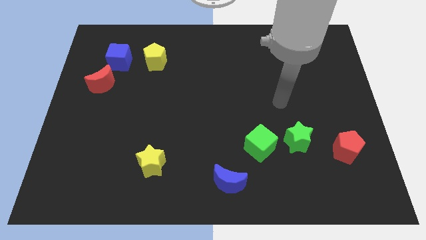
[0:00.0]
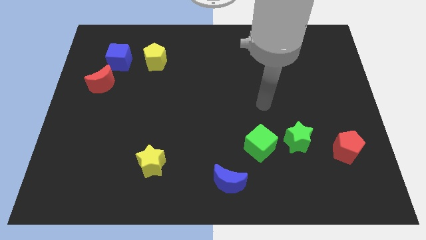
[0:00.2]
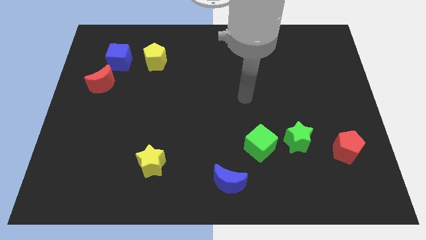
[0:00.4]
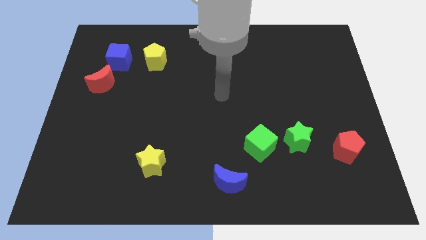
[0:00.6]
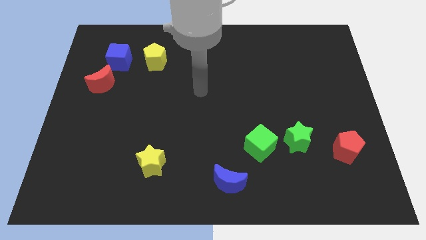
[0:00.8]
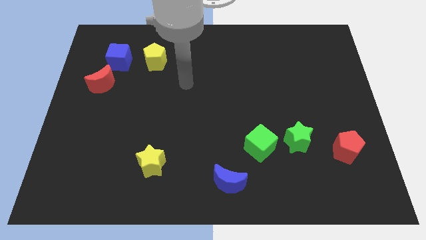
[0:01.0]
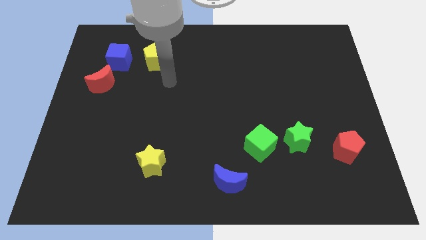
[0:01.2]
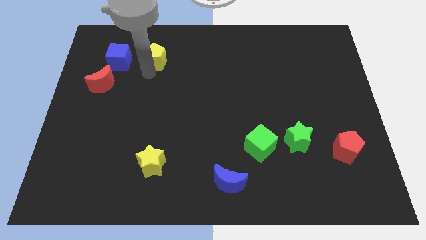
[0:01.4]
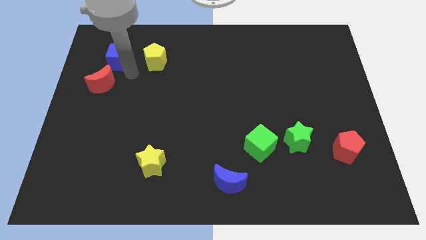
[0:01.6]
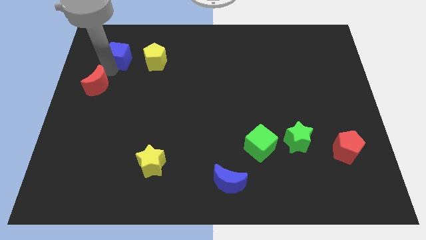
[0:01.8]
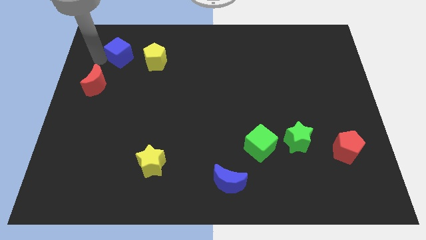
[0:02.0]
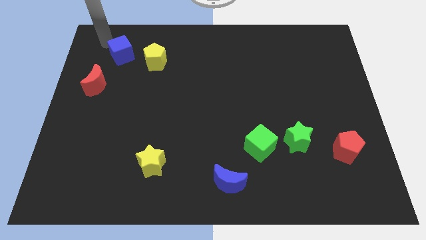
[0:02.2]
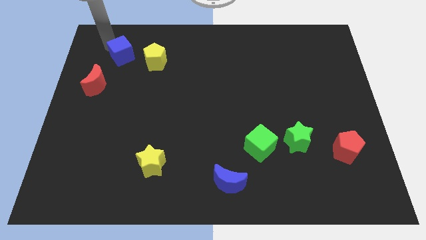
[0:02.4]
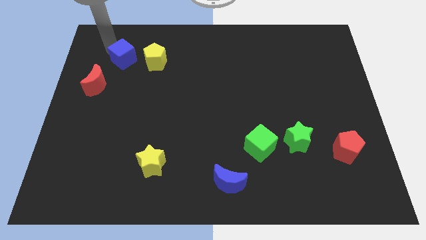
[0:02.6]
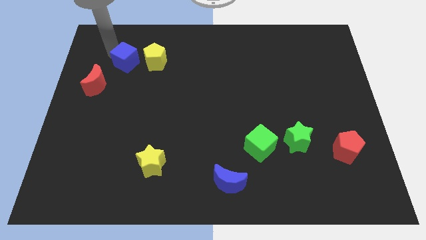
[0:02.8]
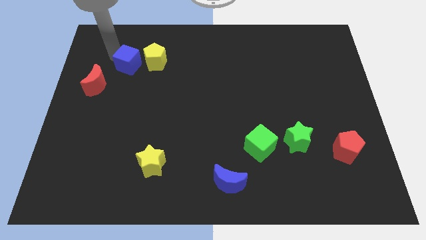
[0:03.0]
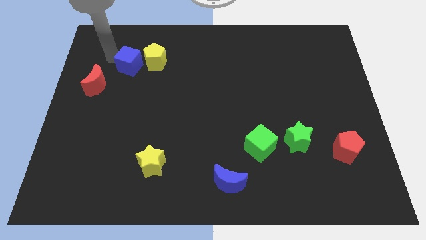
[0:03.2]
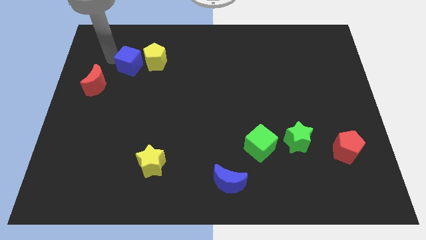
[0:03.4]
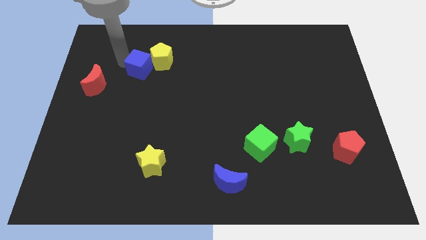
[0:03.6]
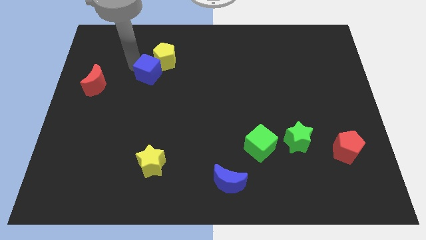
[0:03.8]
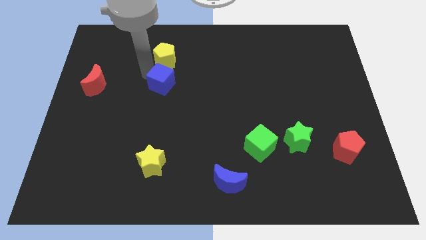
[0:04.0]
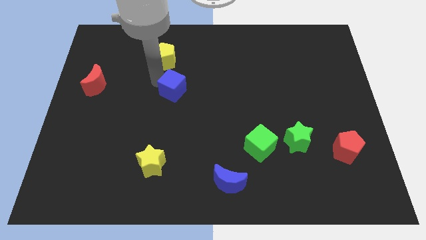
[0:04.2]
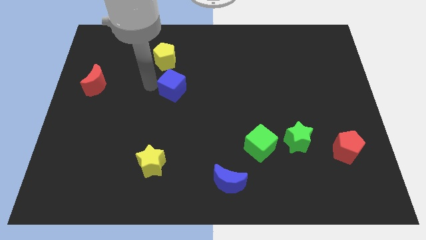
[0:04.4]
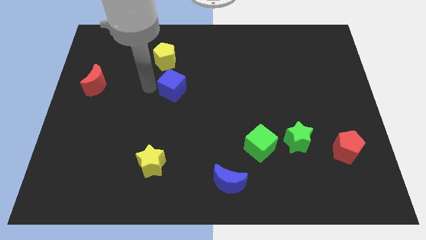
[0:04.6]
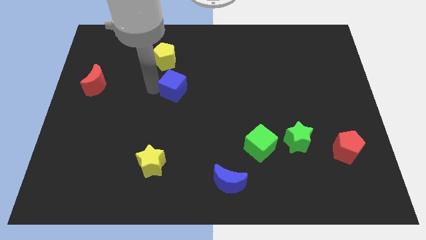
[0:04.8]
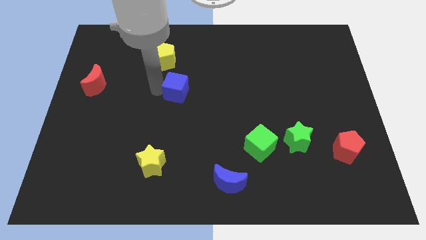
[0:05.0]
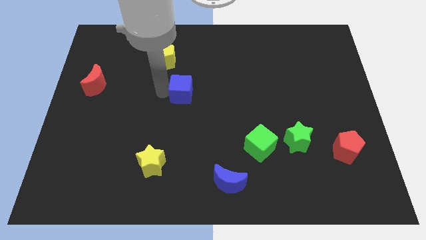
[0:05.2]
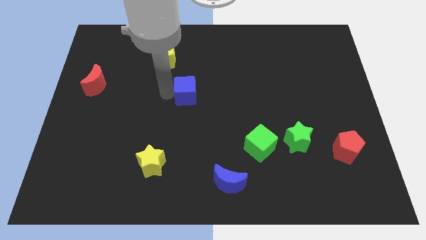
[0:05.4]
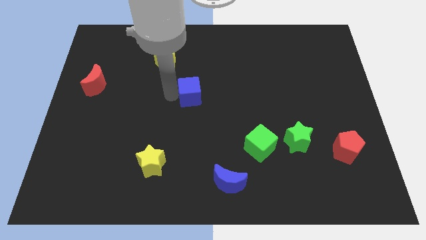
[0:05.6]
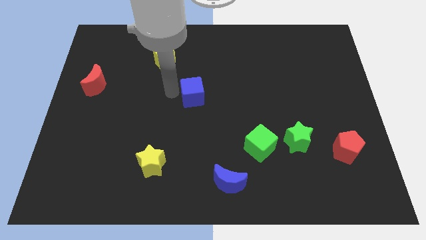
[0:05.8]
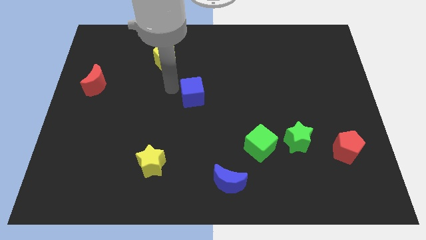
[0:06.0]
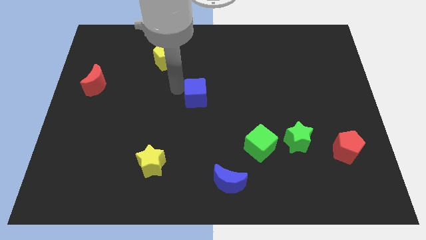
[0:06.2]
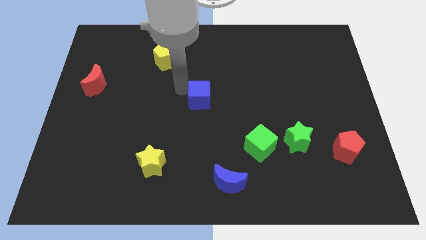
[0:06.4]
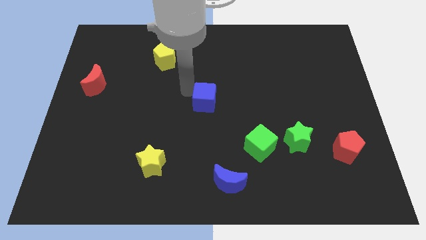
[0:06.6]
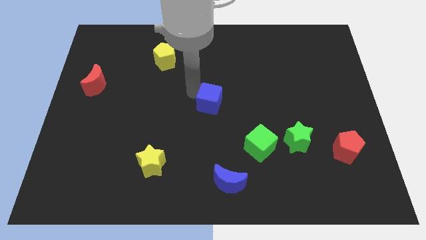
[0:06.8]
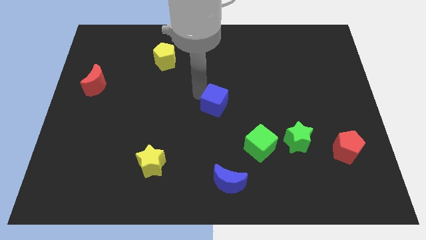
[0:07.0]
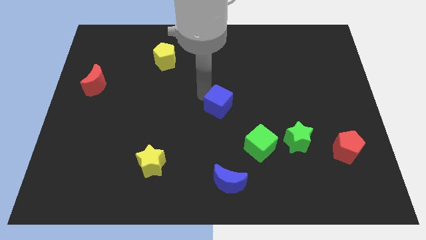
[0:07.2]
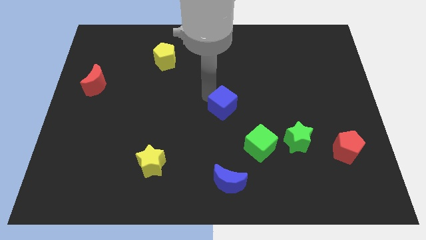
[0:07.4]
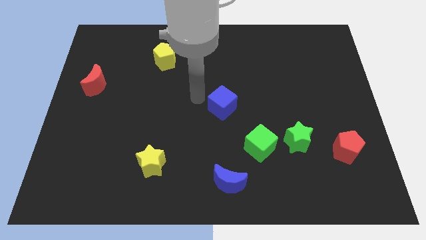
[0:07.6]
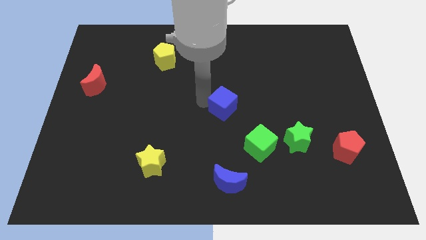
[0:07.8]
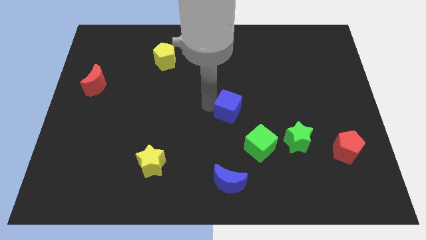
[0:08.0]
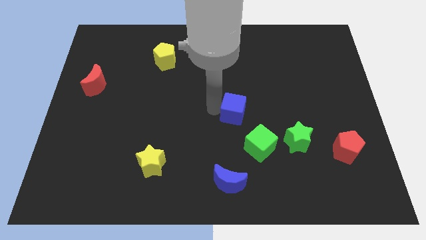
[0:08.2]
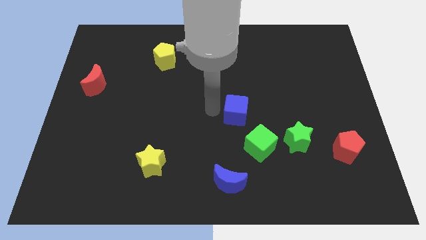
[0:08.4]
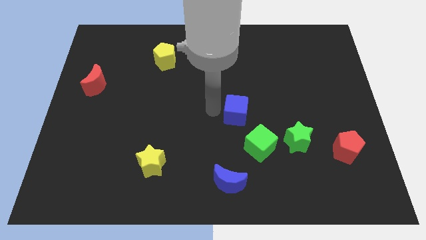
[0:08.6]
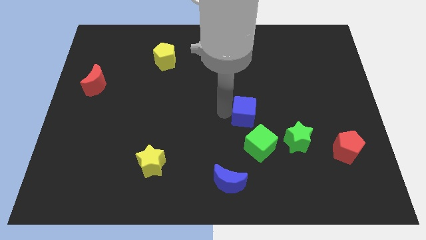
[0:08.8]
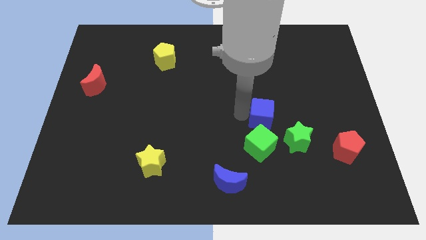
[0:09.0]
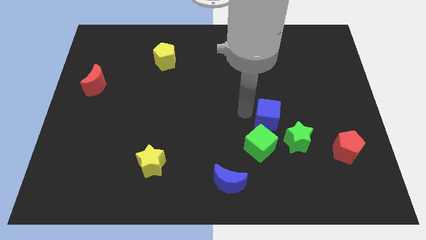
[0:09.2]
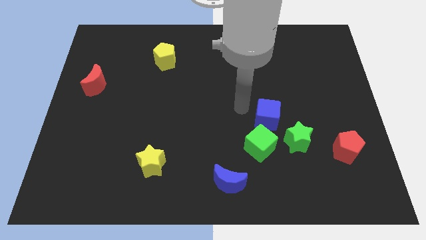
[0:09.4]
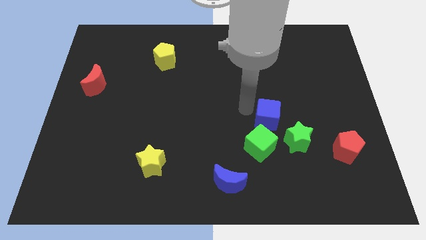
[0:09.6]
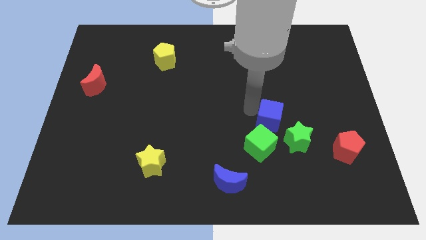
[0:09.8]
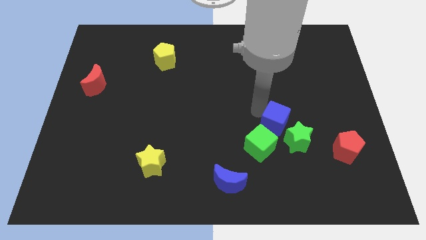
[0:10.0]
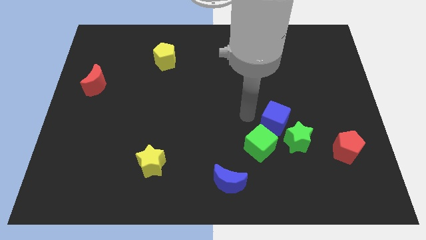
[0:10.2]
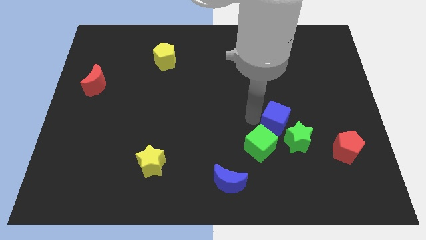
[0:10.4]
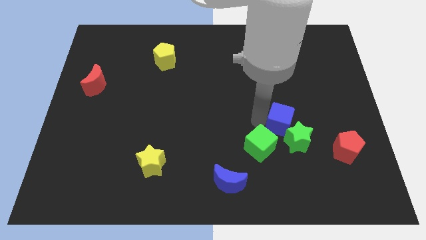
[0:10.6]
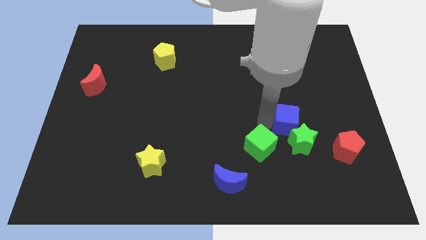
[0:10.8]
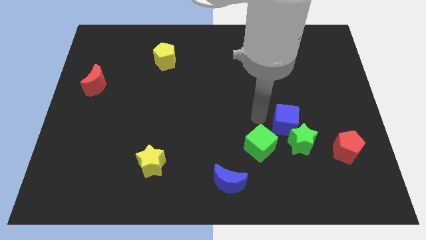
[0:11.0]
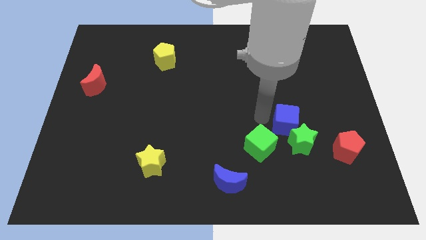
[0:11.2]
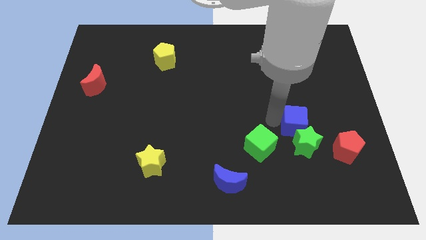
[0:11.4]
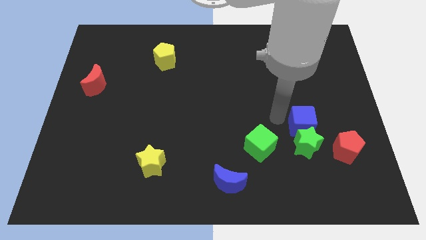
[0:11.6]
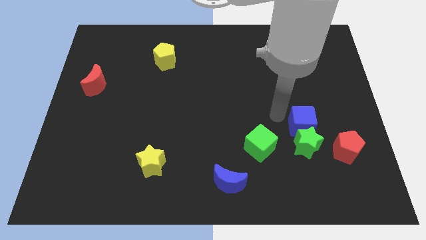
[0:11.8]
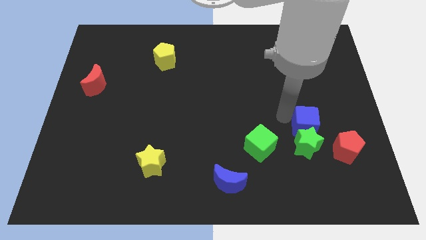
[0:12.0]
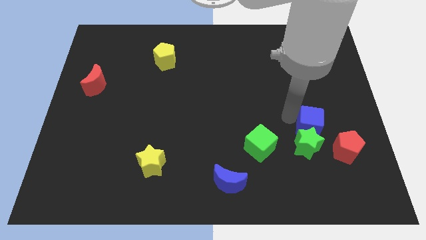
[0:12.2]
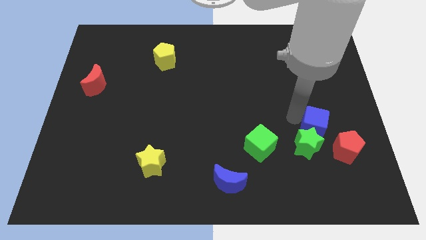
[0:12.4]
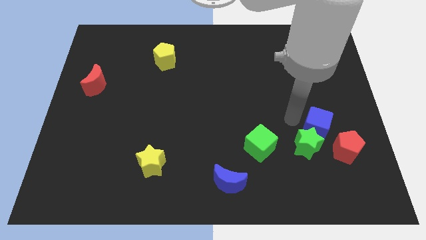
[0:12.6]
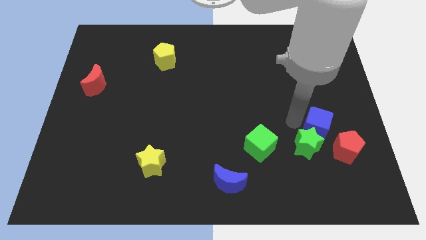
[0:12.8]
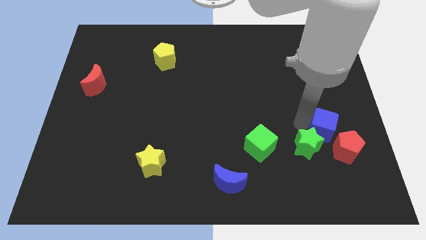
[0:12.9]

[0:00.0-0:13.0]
push the blue cube just right of the green star
